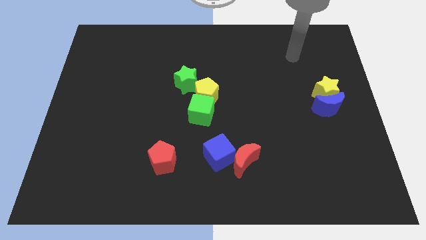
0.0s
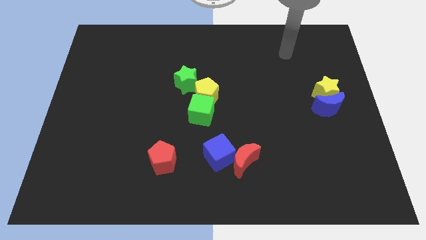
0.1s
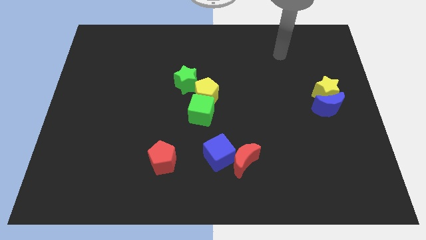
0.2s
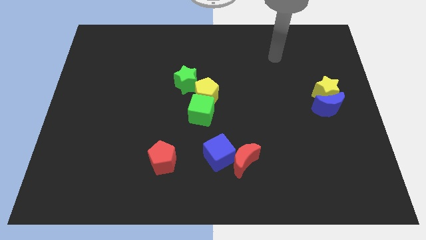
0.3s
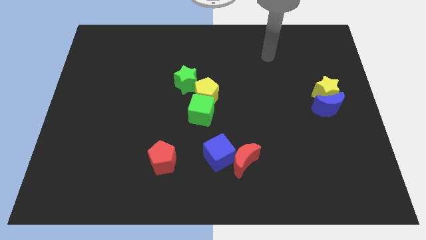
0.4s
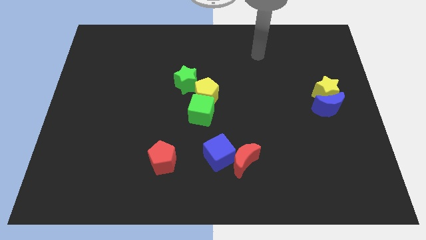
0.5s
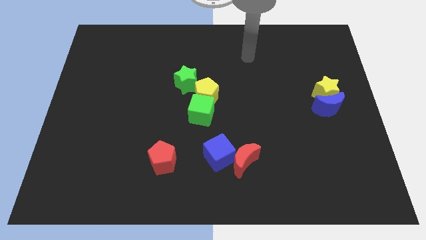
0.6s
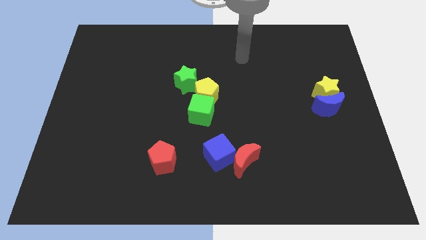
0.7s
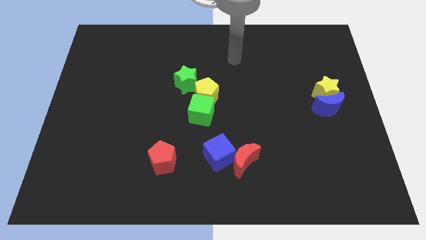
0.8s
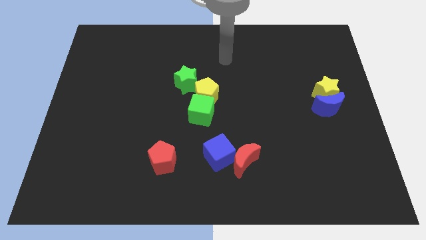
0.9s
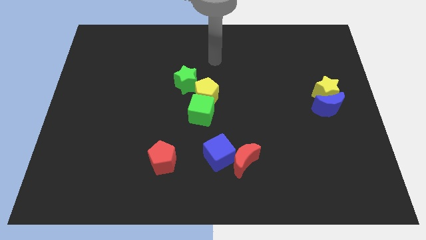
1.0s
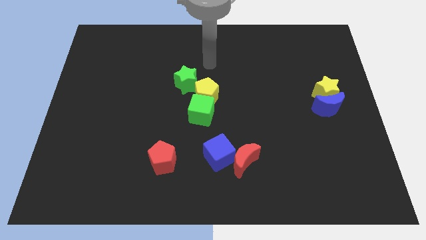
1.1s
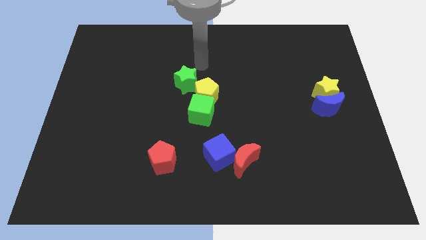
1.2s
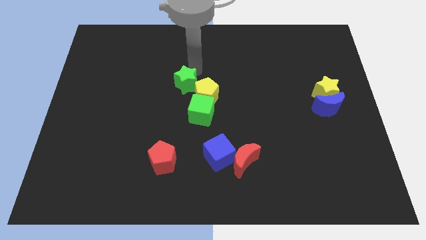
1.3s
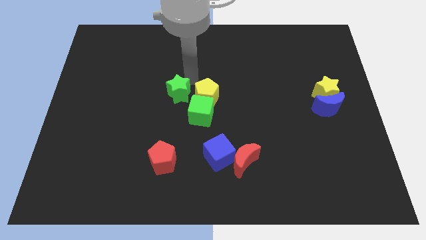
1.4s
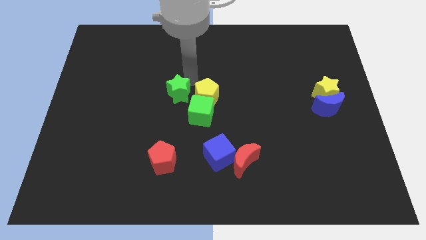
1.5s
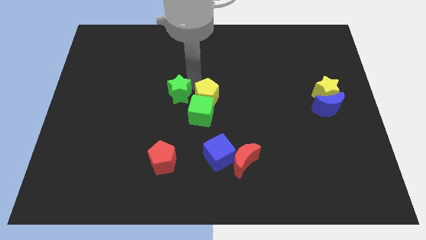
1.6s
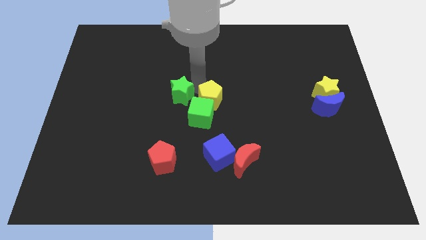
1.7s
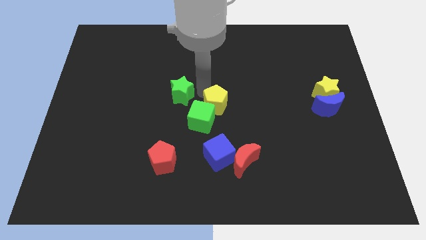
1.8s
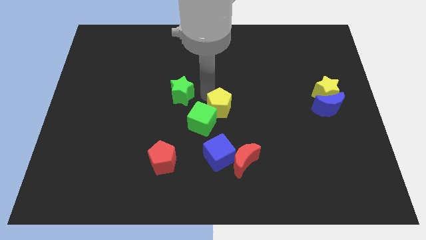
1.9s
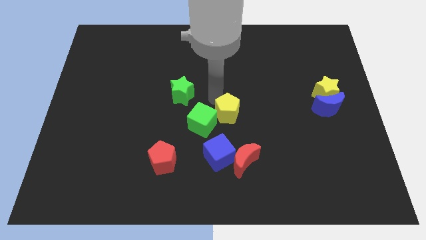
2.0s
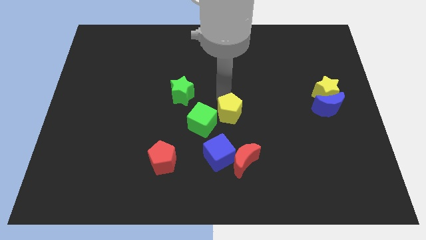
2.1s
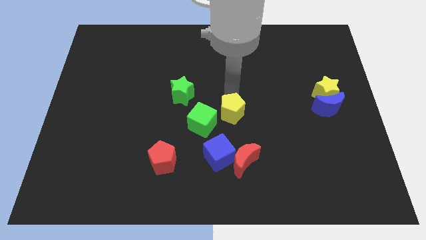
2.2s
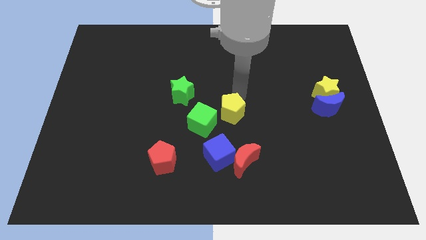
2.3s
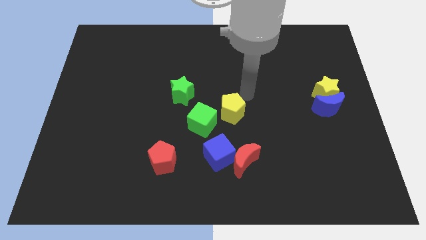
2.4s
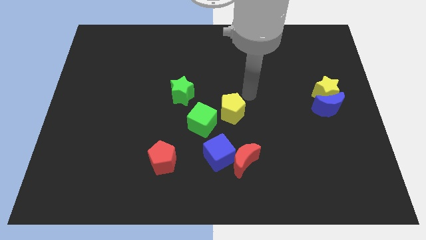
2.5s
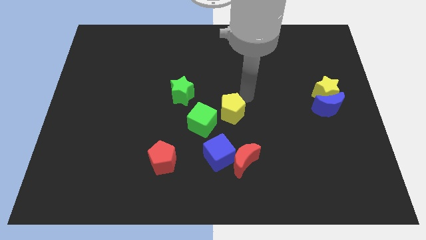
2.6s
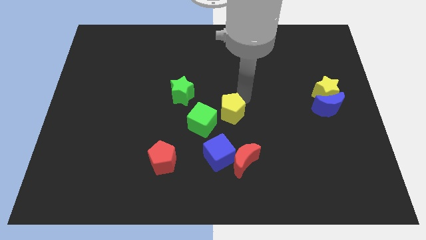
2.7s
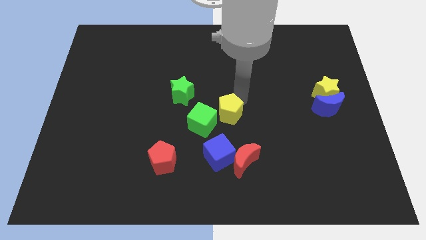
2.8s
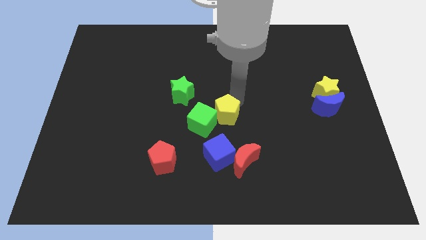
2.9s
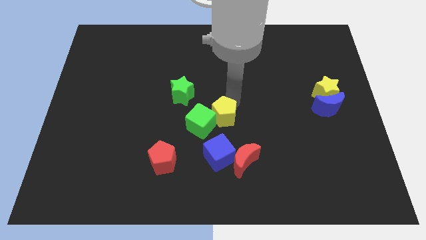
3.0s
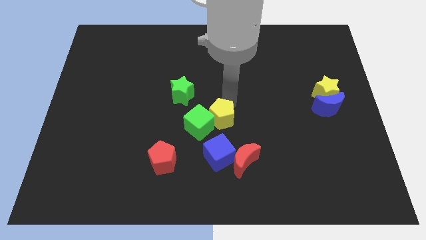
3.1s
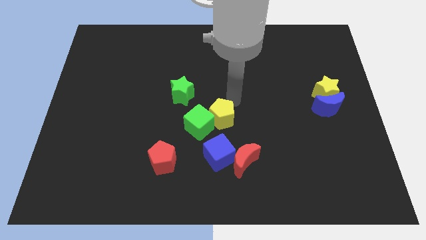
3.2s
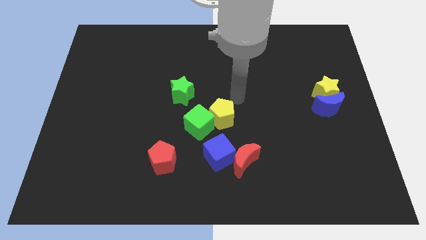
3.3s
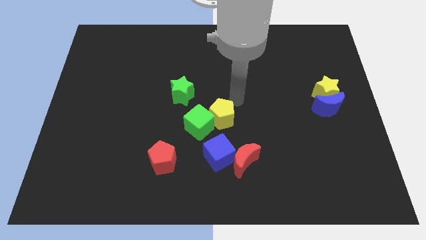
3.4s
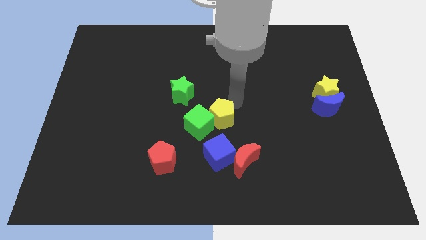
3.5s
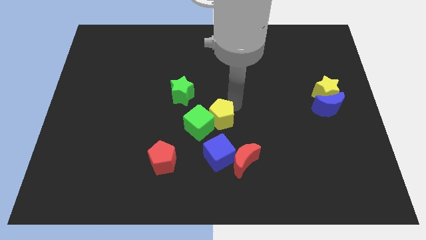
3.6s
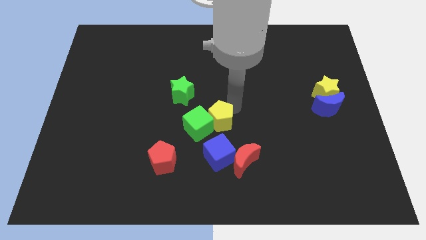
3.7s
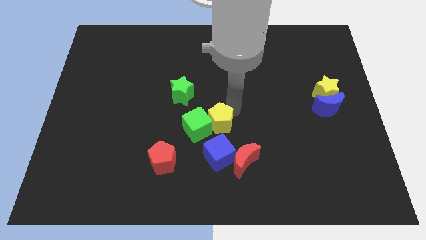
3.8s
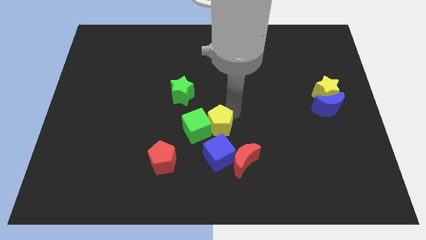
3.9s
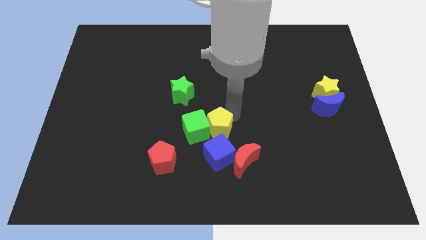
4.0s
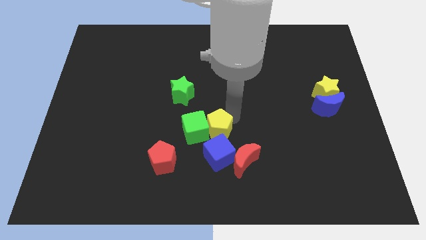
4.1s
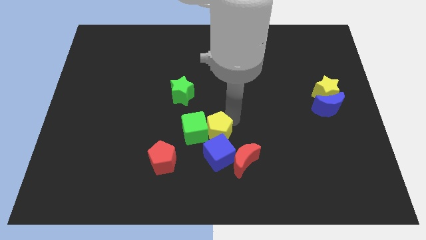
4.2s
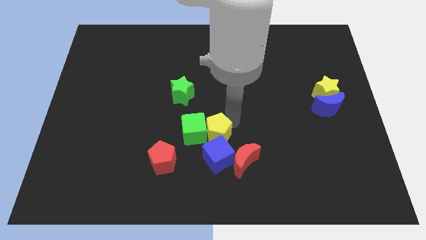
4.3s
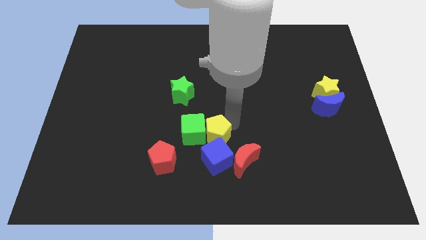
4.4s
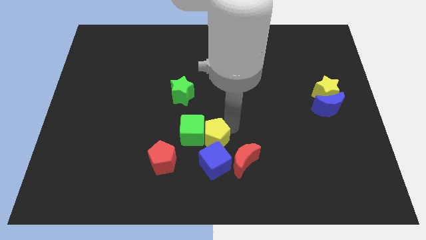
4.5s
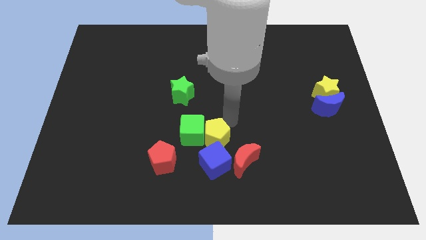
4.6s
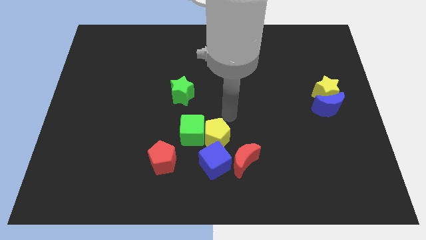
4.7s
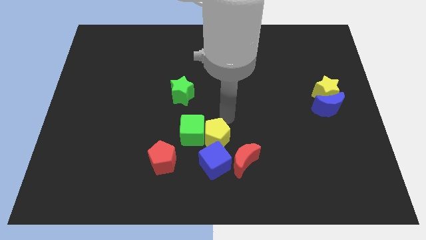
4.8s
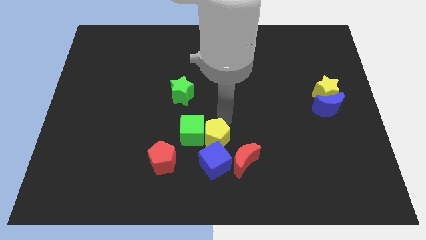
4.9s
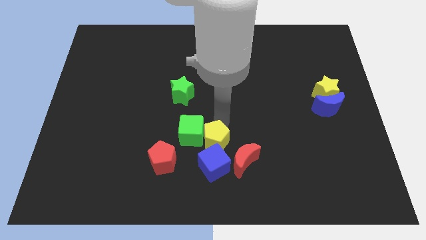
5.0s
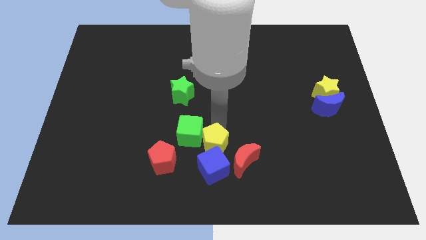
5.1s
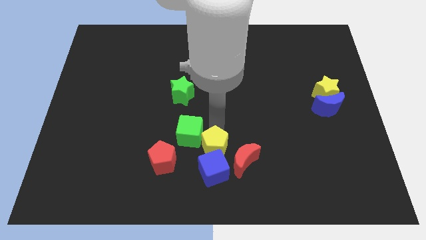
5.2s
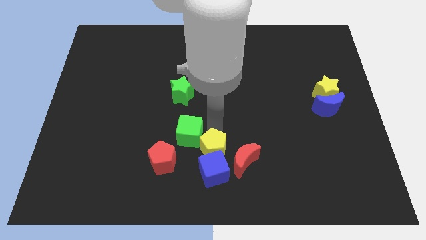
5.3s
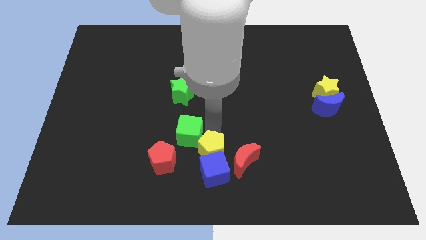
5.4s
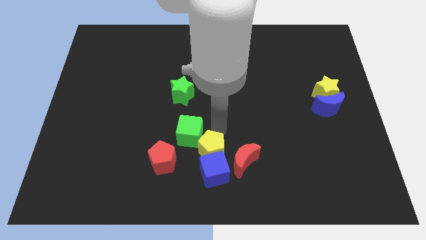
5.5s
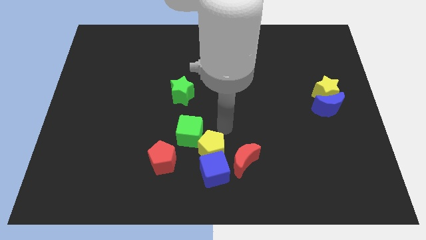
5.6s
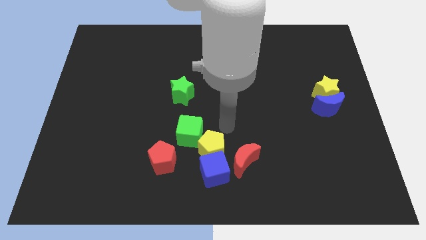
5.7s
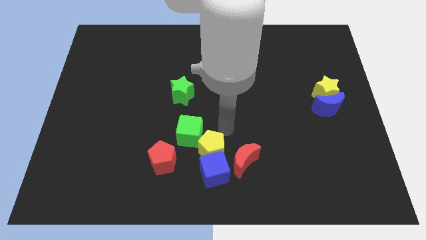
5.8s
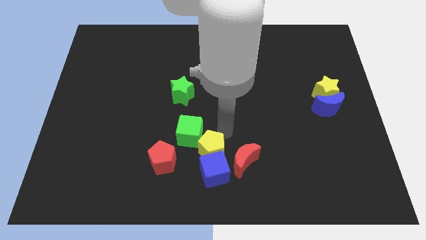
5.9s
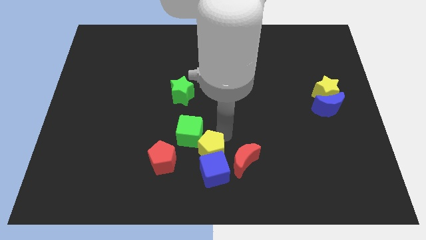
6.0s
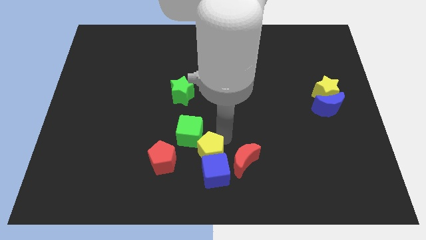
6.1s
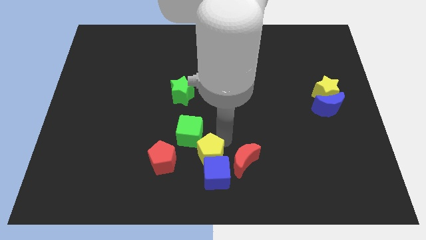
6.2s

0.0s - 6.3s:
put the yellow pentagon to the bottom

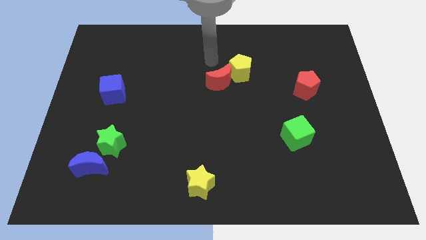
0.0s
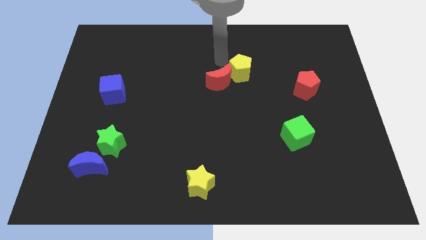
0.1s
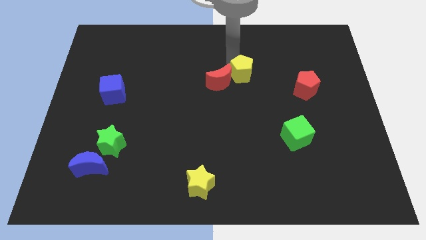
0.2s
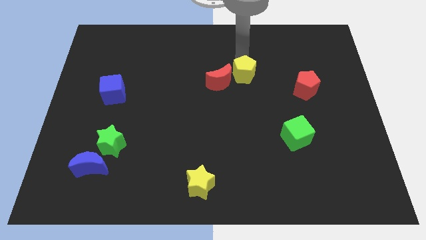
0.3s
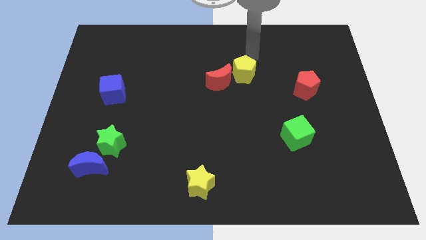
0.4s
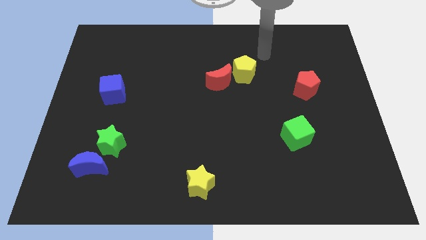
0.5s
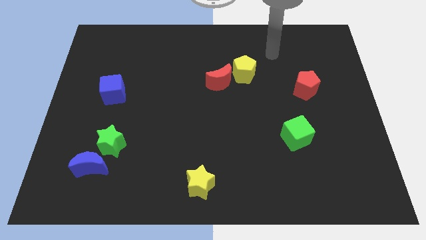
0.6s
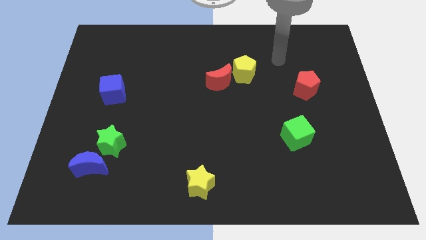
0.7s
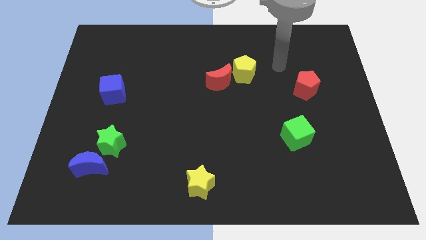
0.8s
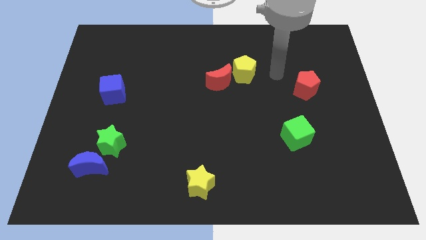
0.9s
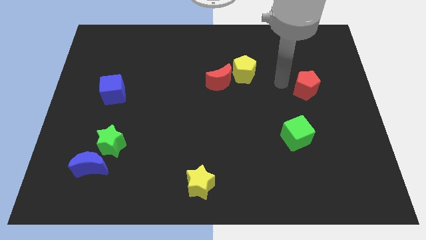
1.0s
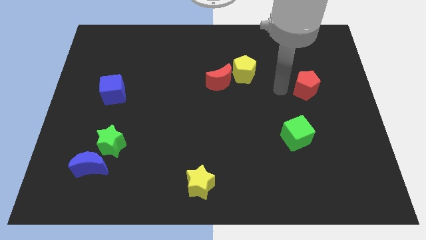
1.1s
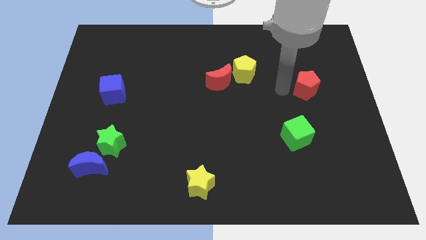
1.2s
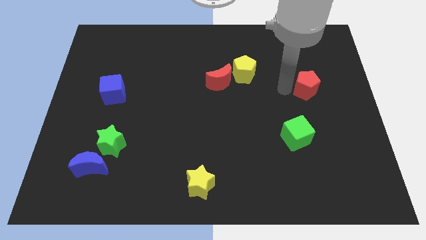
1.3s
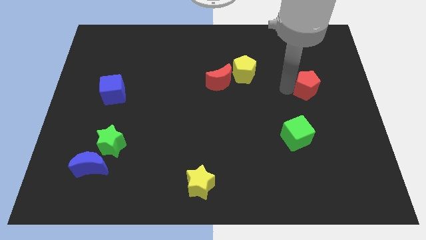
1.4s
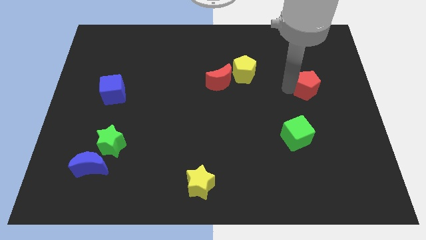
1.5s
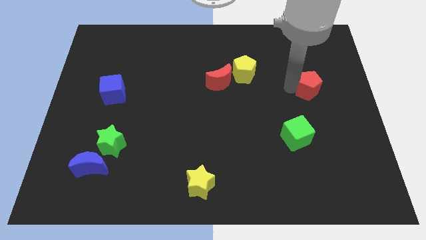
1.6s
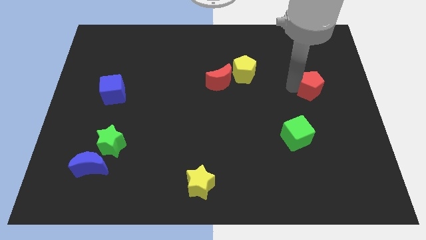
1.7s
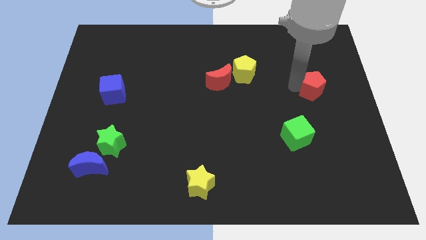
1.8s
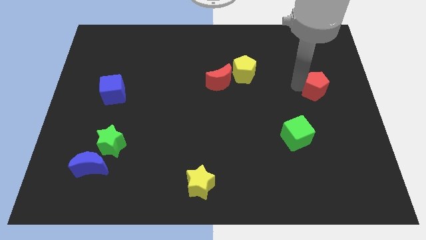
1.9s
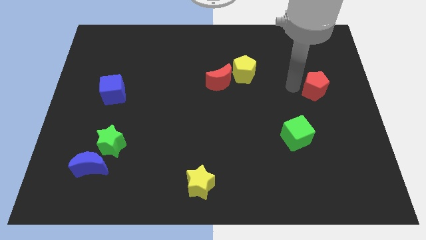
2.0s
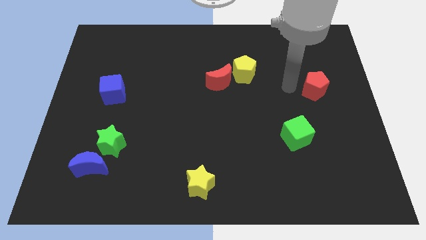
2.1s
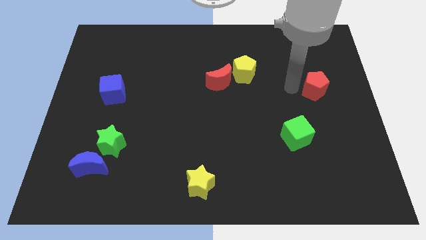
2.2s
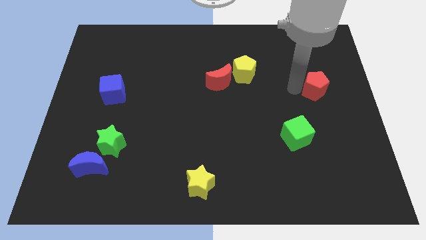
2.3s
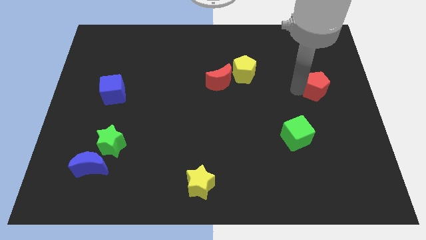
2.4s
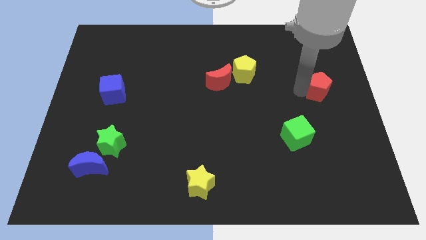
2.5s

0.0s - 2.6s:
push the red pentagon to the center right
